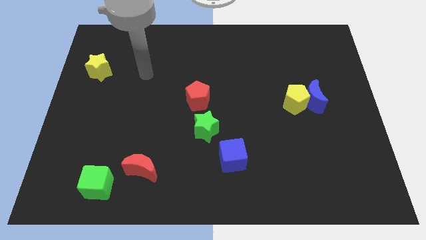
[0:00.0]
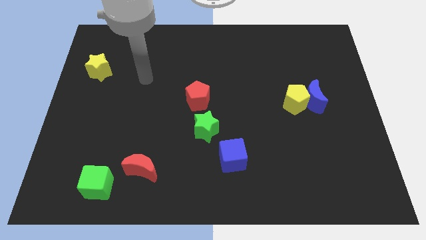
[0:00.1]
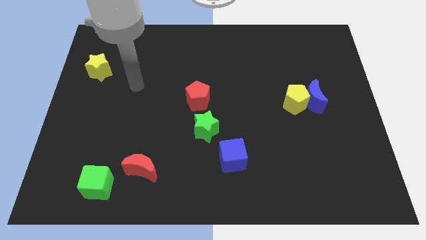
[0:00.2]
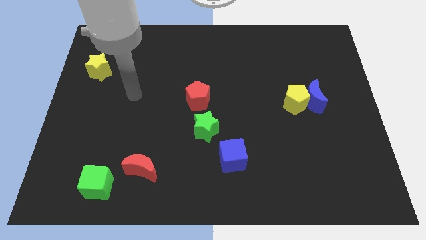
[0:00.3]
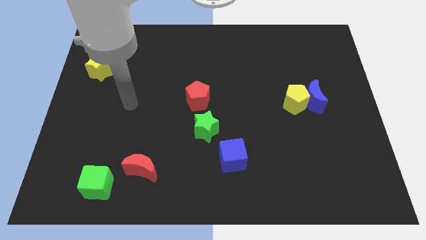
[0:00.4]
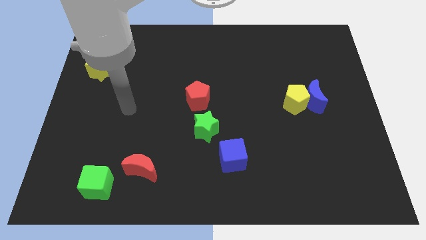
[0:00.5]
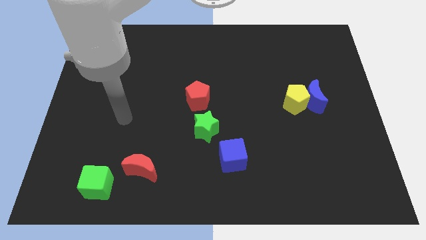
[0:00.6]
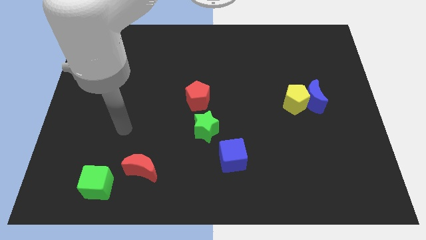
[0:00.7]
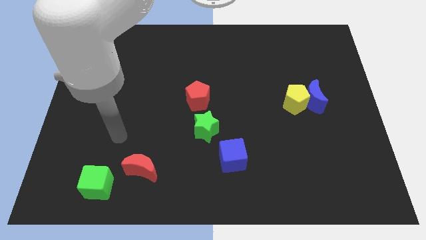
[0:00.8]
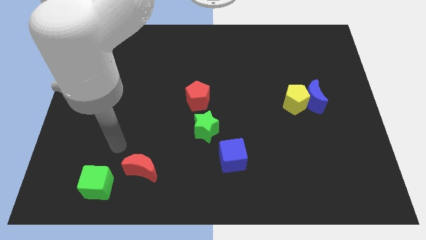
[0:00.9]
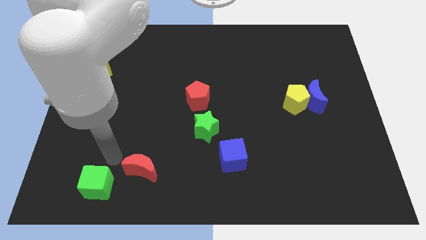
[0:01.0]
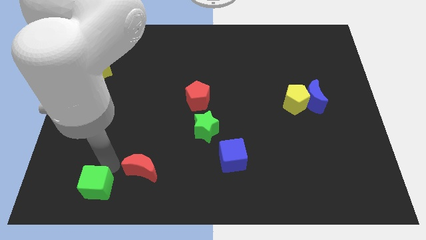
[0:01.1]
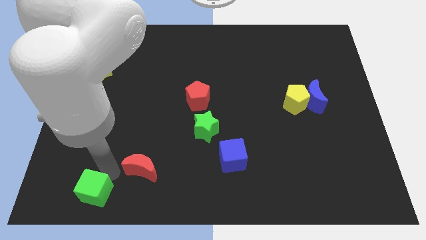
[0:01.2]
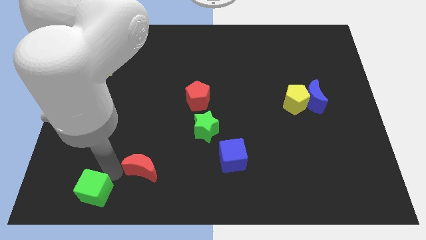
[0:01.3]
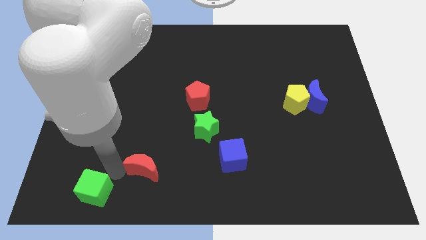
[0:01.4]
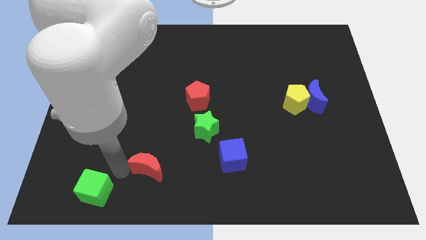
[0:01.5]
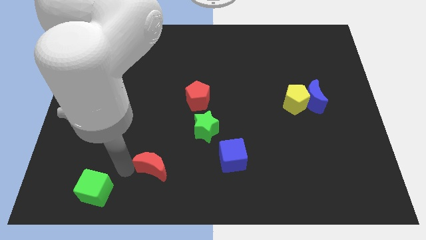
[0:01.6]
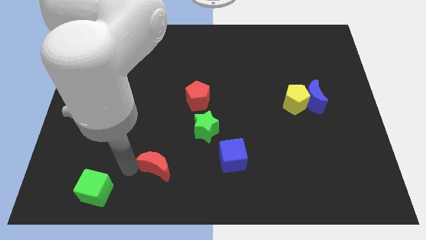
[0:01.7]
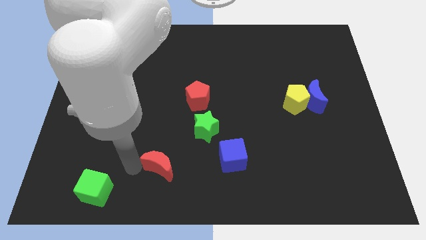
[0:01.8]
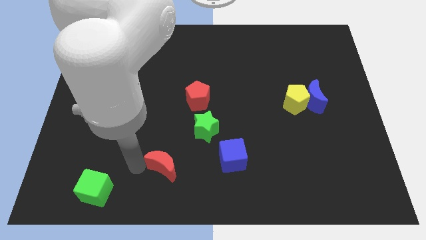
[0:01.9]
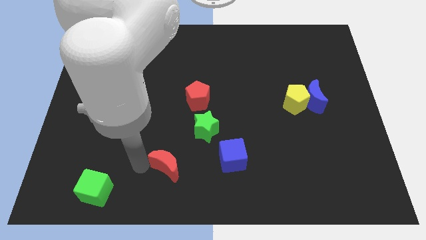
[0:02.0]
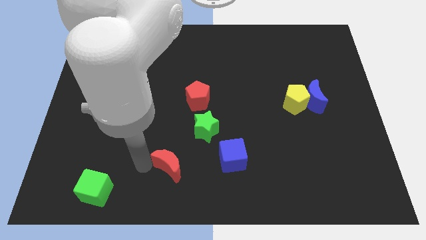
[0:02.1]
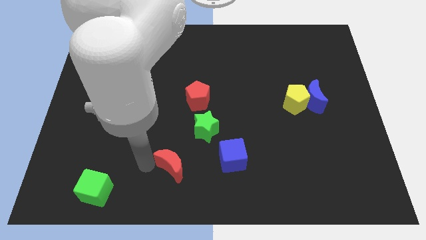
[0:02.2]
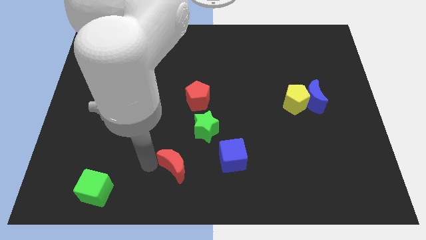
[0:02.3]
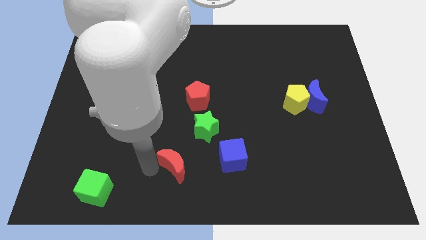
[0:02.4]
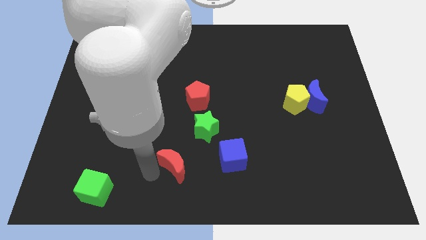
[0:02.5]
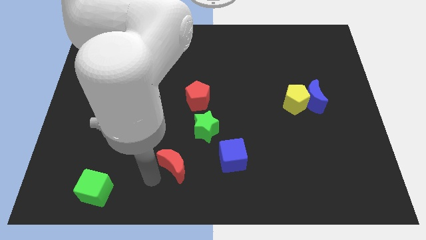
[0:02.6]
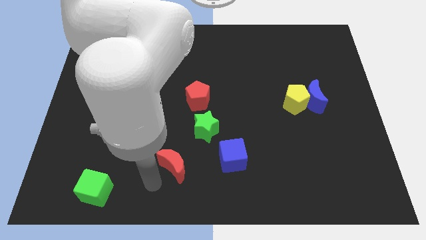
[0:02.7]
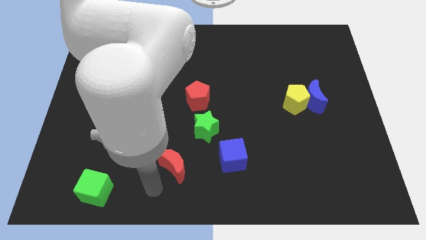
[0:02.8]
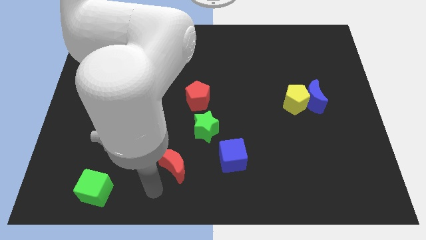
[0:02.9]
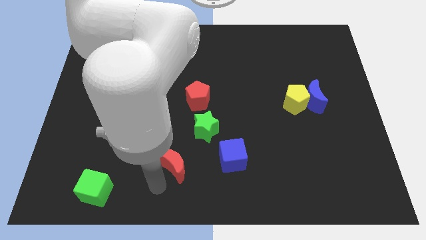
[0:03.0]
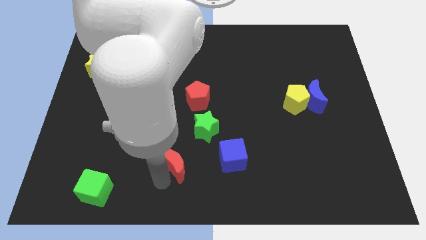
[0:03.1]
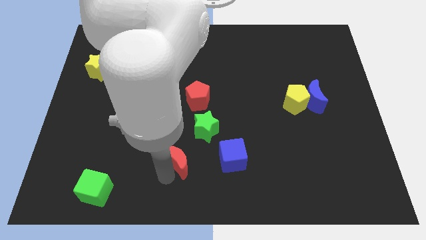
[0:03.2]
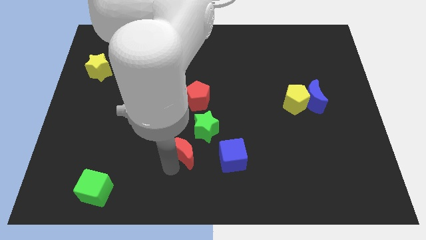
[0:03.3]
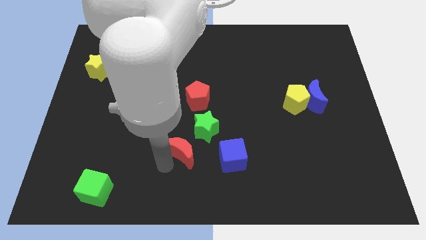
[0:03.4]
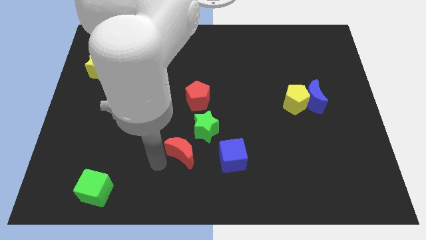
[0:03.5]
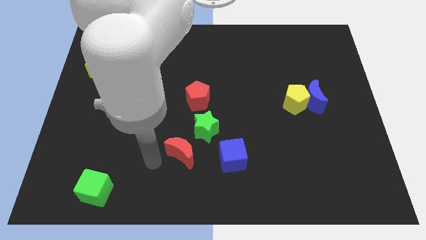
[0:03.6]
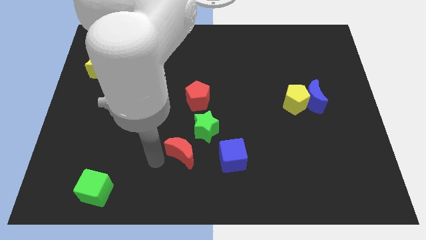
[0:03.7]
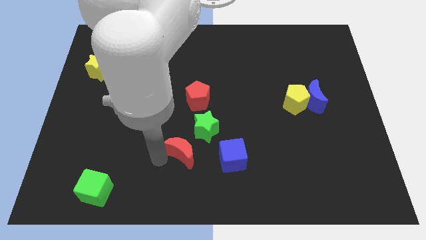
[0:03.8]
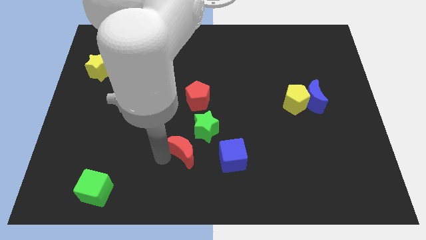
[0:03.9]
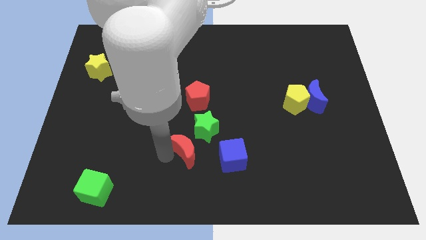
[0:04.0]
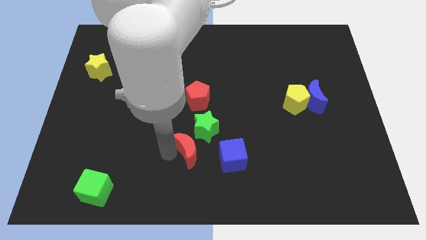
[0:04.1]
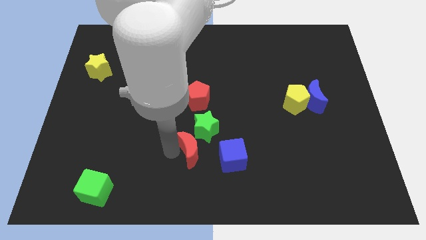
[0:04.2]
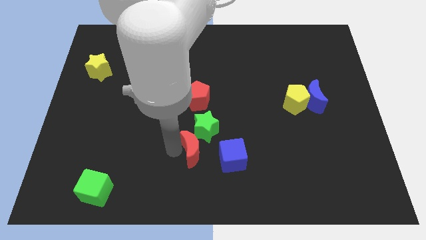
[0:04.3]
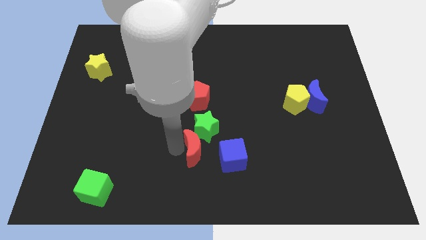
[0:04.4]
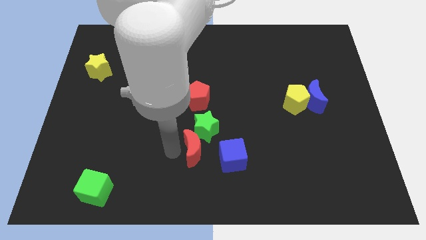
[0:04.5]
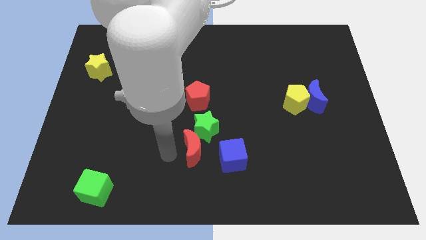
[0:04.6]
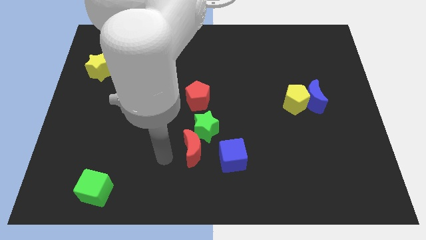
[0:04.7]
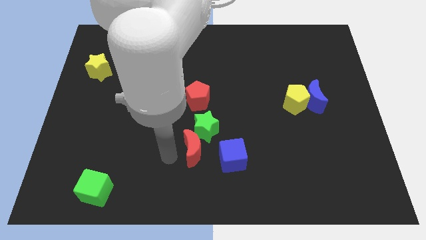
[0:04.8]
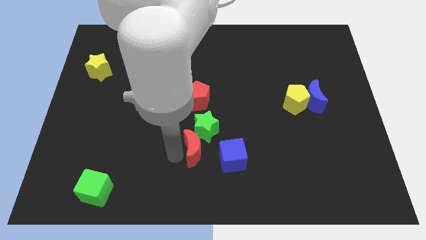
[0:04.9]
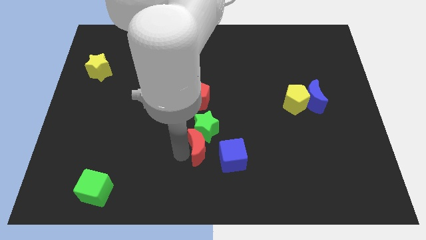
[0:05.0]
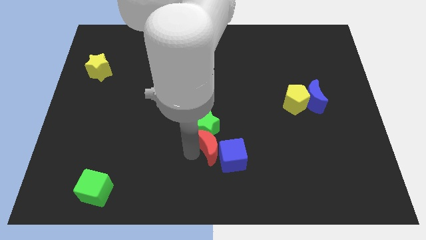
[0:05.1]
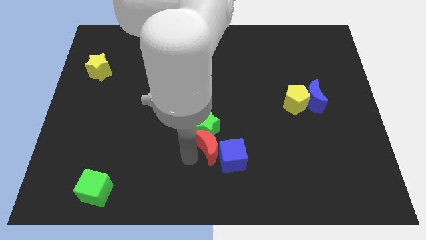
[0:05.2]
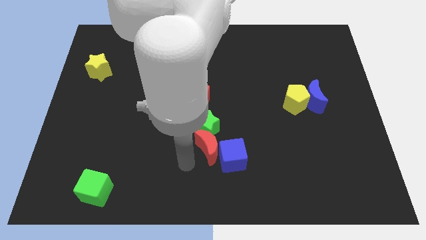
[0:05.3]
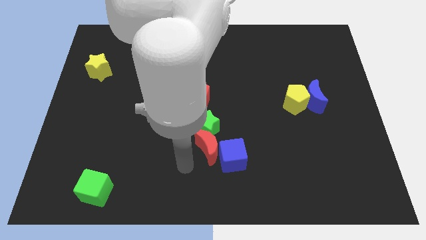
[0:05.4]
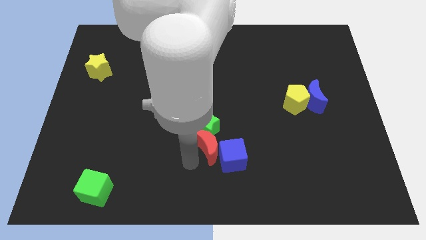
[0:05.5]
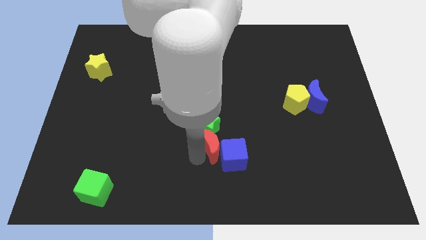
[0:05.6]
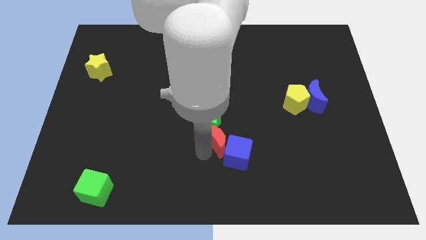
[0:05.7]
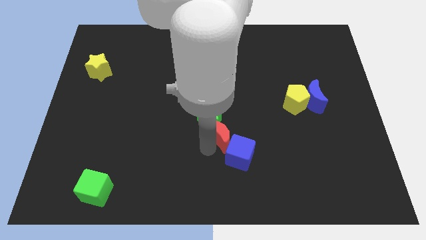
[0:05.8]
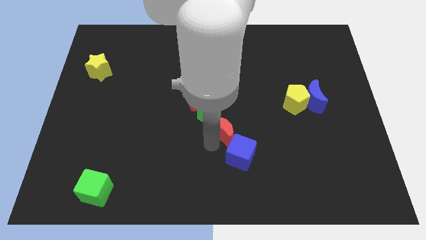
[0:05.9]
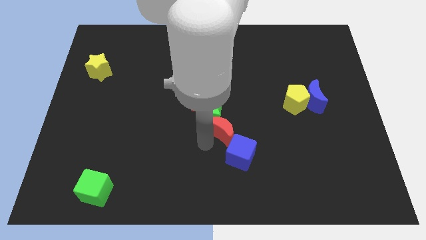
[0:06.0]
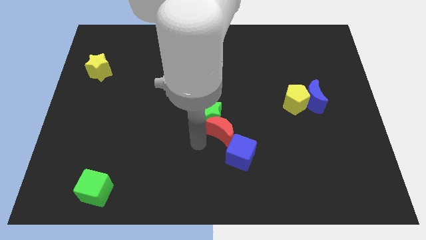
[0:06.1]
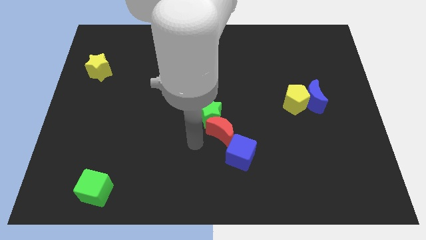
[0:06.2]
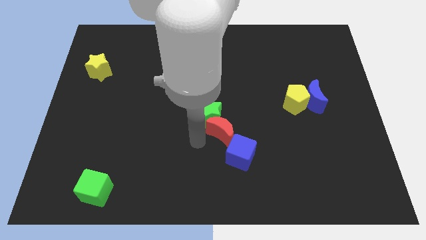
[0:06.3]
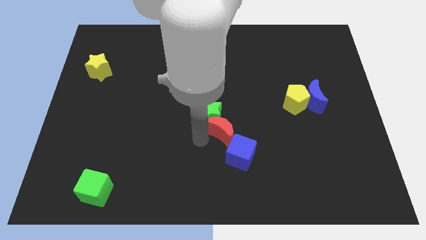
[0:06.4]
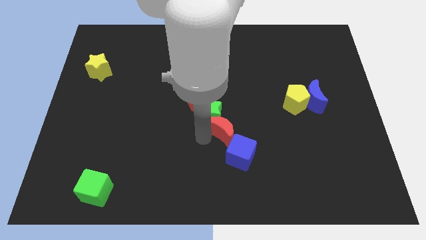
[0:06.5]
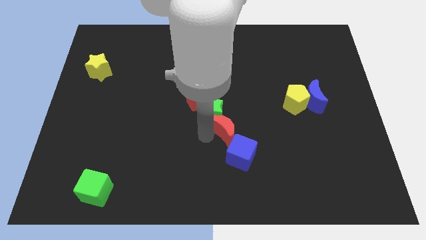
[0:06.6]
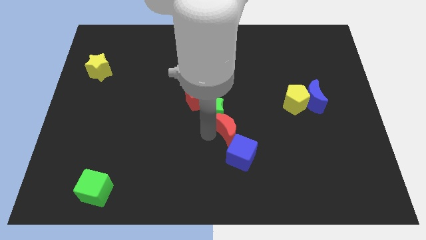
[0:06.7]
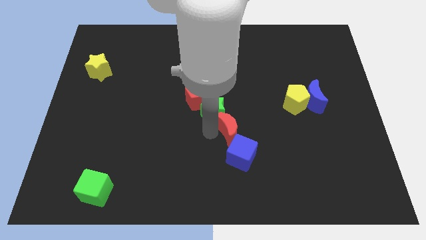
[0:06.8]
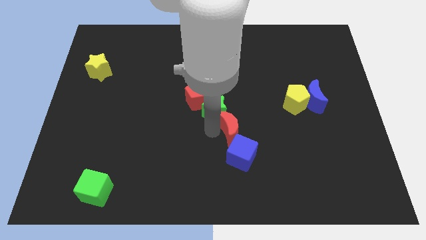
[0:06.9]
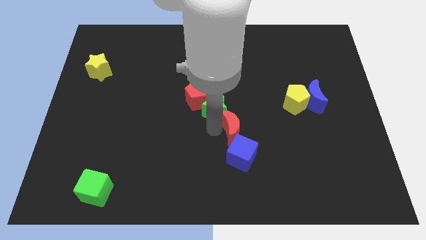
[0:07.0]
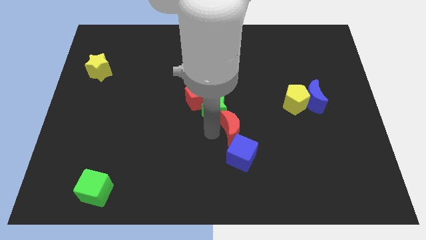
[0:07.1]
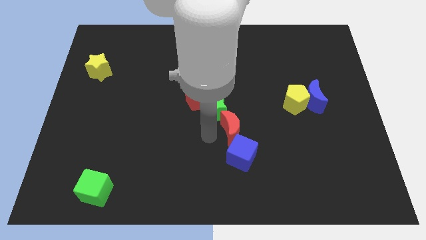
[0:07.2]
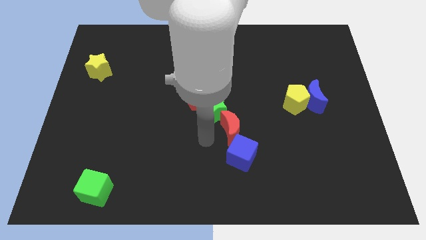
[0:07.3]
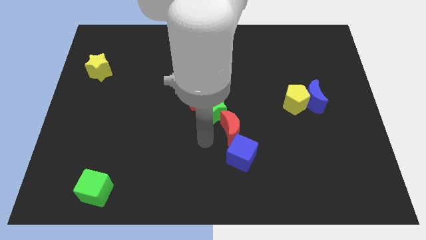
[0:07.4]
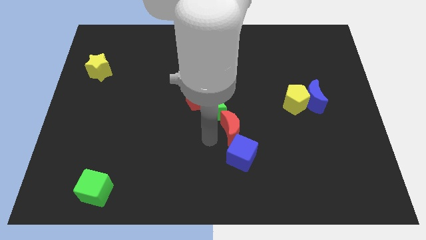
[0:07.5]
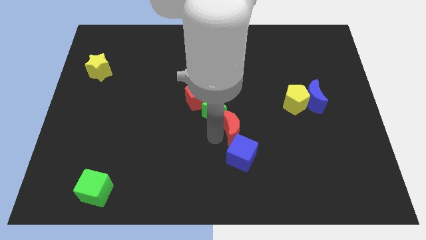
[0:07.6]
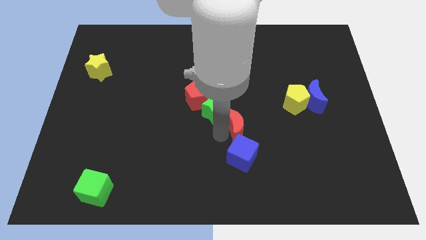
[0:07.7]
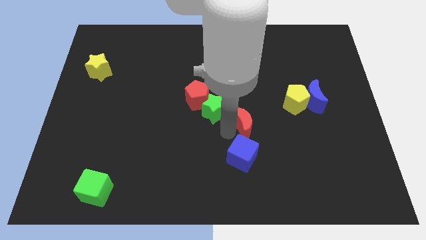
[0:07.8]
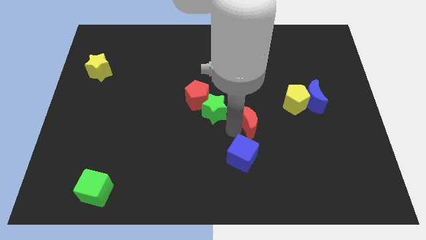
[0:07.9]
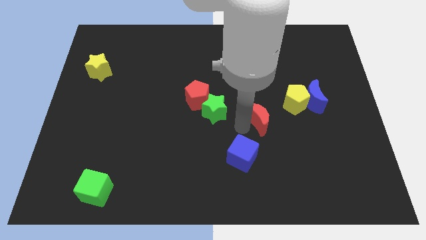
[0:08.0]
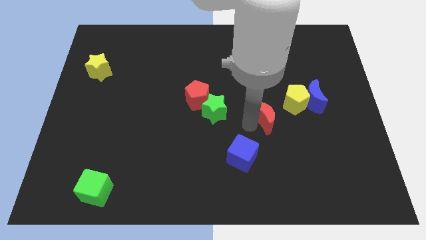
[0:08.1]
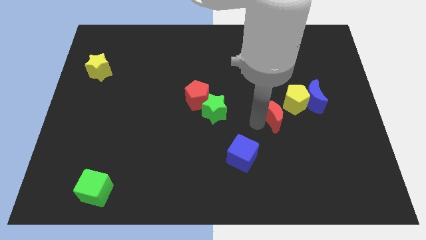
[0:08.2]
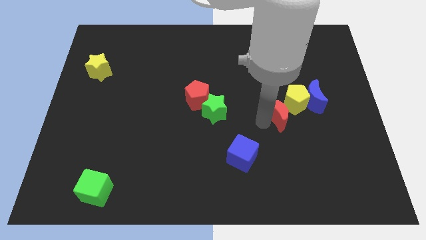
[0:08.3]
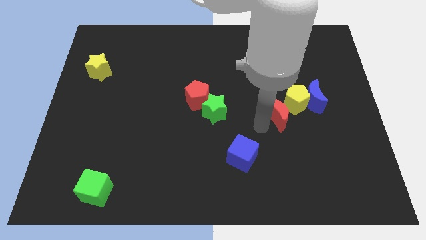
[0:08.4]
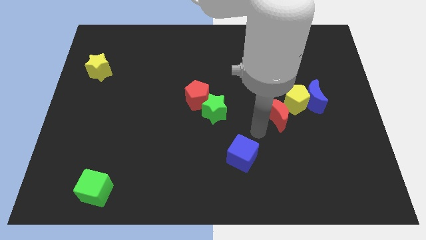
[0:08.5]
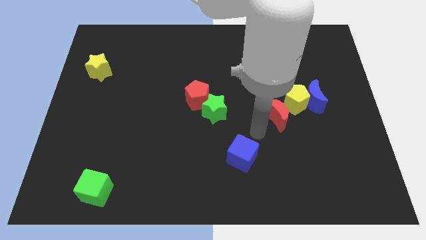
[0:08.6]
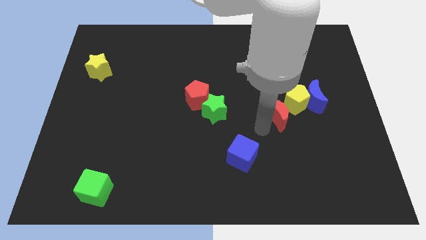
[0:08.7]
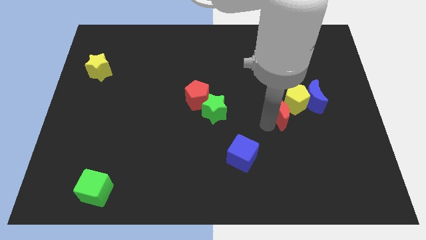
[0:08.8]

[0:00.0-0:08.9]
slide the red moon next to the yellow pentagon
